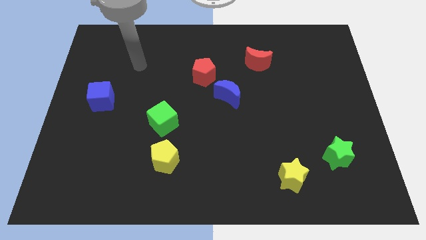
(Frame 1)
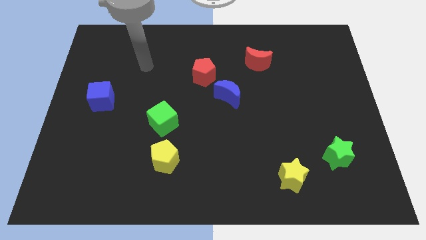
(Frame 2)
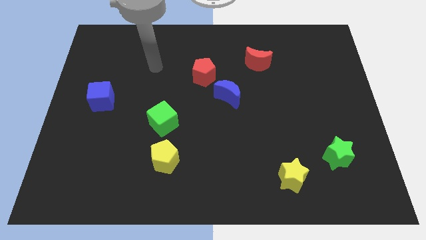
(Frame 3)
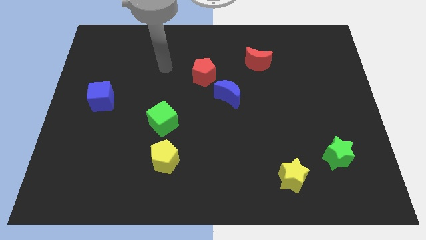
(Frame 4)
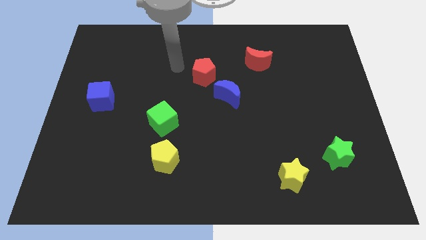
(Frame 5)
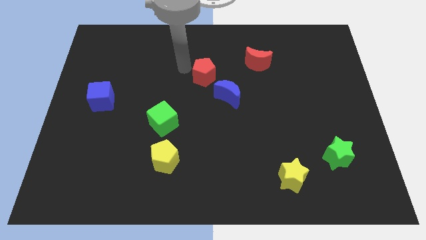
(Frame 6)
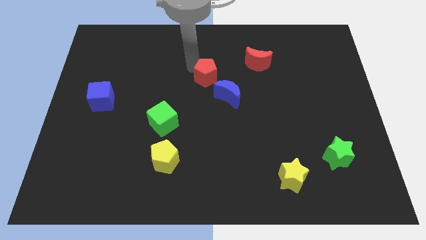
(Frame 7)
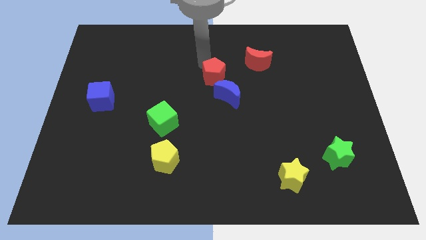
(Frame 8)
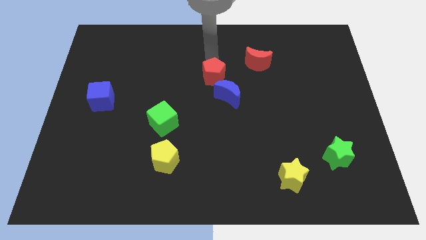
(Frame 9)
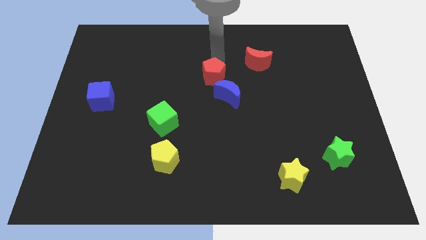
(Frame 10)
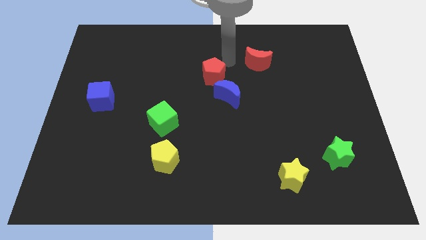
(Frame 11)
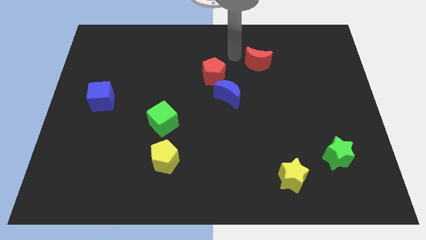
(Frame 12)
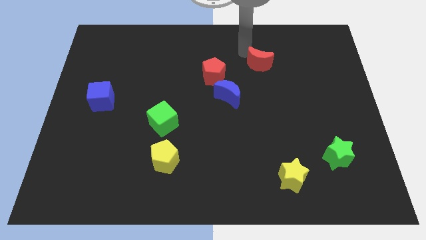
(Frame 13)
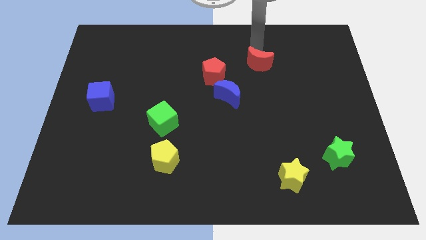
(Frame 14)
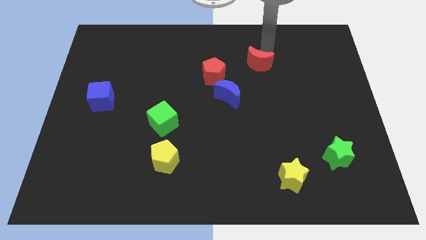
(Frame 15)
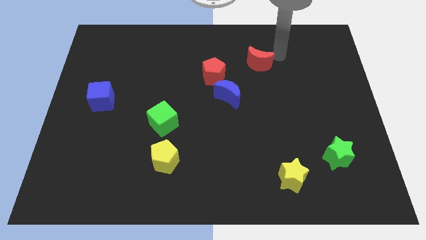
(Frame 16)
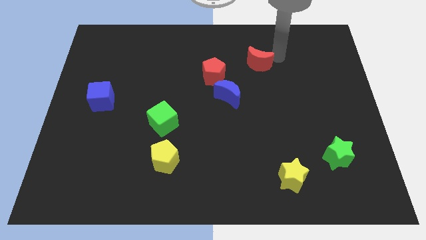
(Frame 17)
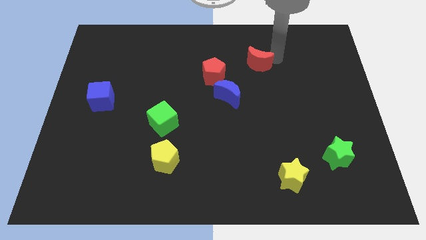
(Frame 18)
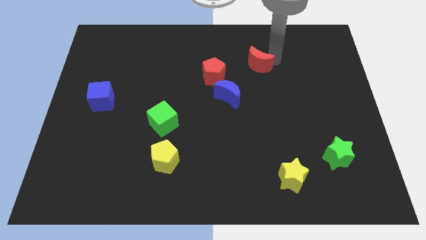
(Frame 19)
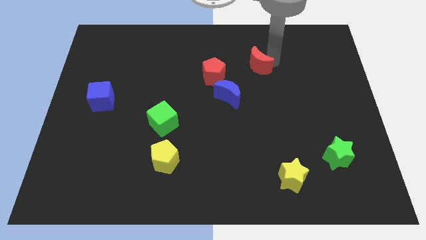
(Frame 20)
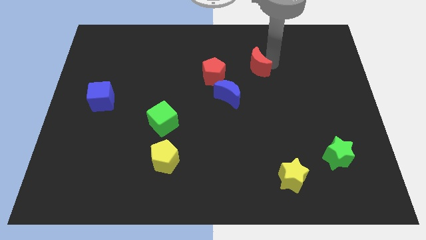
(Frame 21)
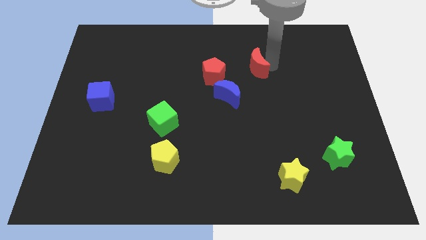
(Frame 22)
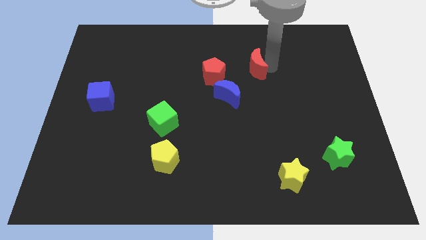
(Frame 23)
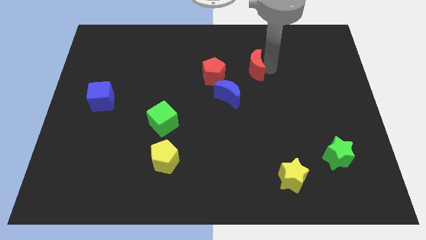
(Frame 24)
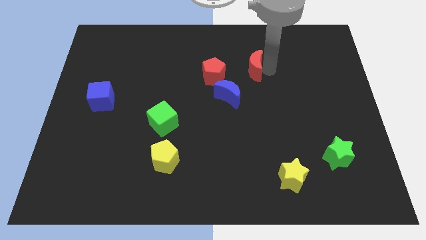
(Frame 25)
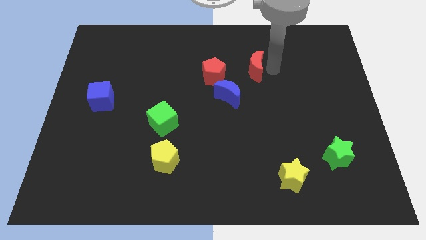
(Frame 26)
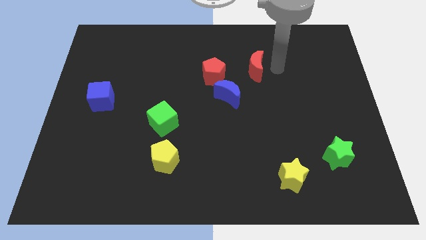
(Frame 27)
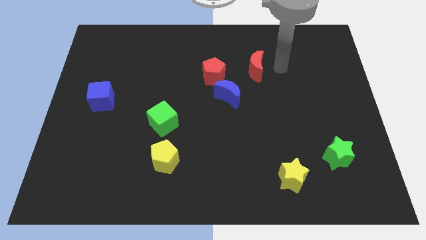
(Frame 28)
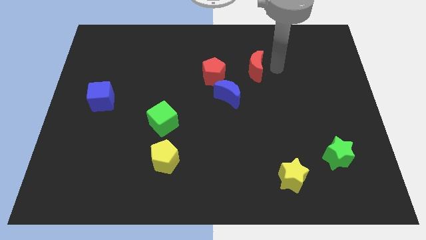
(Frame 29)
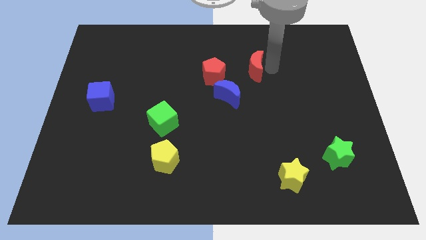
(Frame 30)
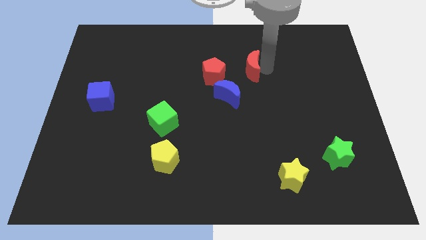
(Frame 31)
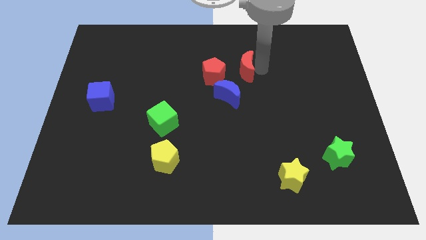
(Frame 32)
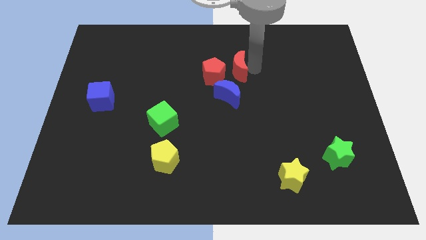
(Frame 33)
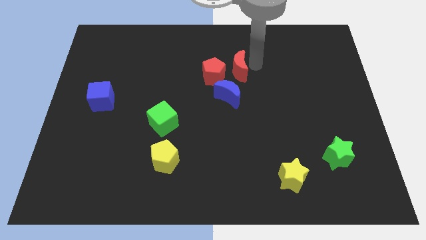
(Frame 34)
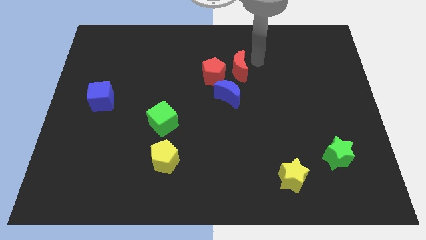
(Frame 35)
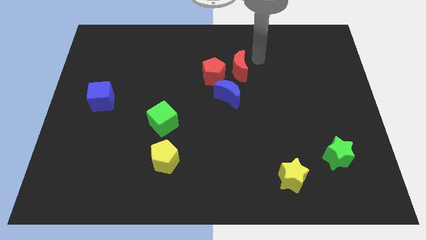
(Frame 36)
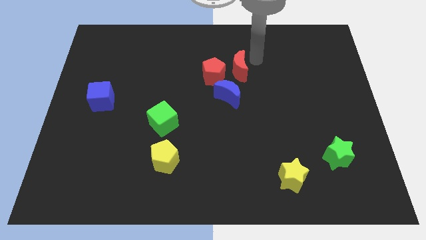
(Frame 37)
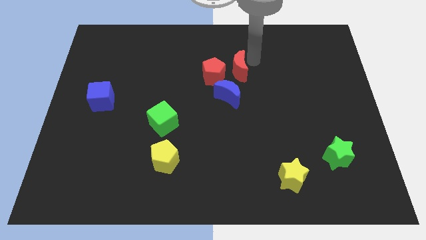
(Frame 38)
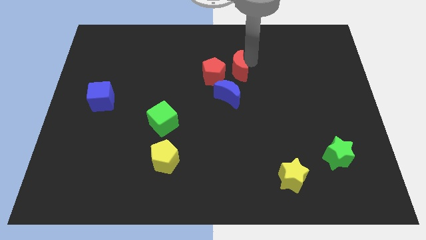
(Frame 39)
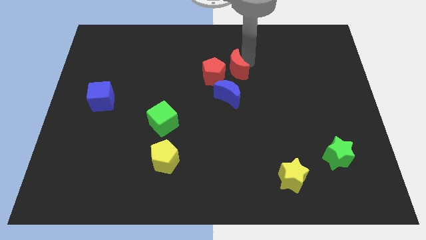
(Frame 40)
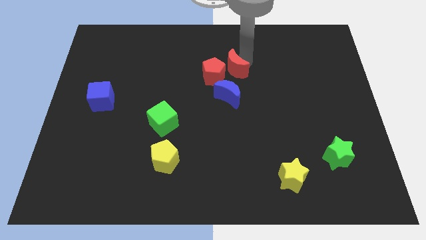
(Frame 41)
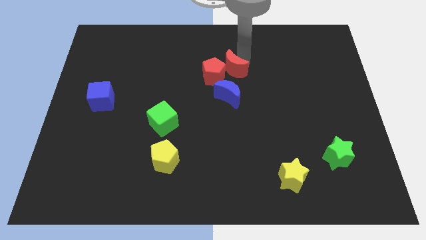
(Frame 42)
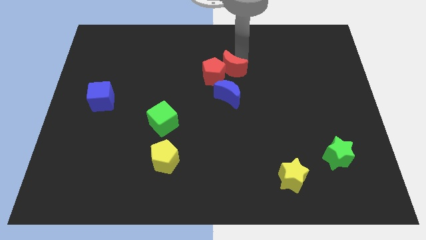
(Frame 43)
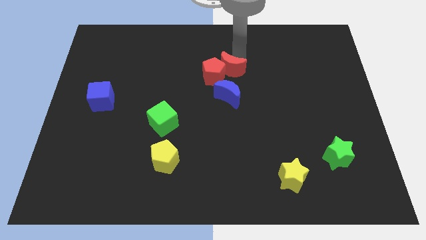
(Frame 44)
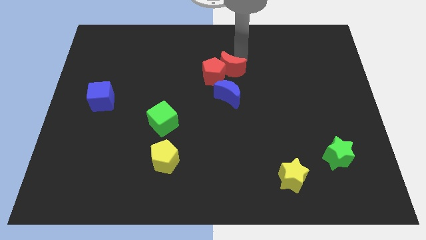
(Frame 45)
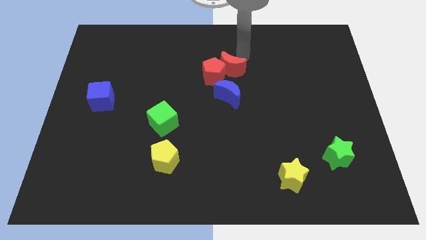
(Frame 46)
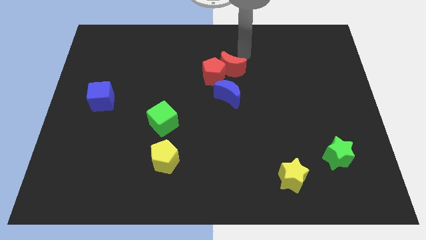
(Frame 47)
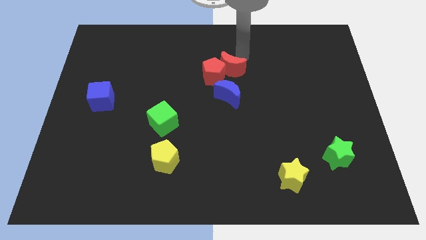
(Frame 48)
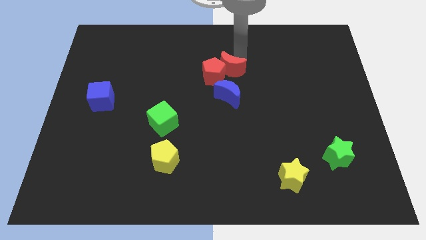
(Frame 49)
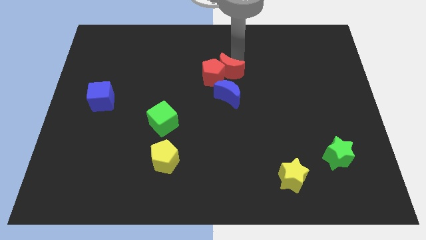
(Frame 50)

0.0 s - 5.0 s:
push the red moon downwards and to the left a little bit

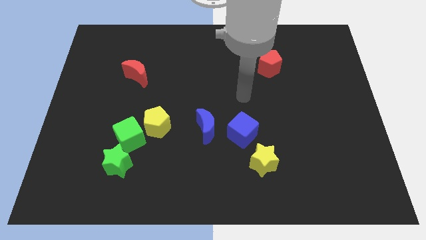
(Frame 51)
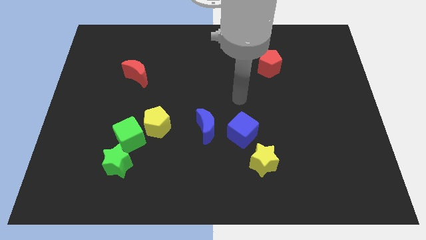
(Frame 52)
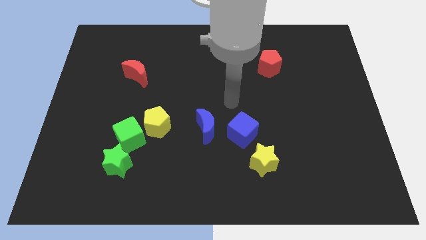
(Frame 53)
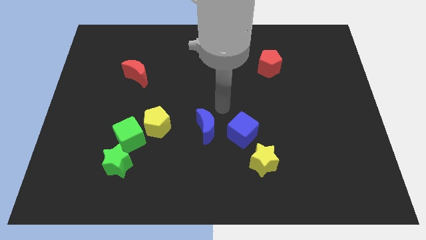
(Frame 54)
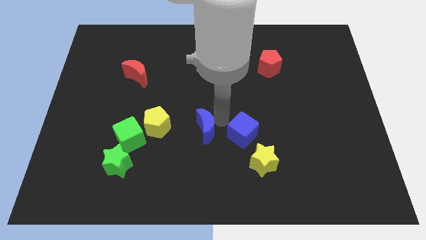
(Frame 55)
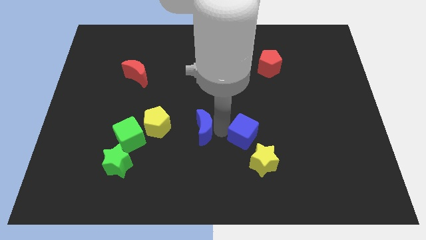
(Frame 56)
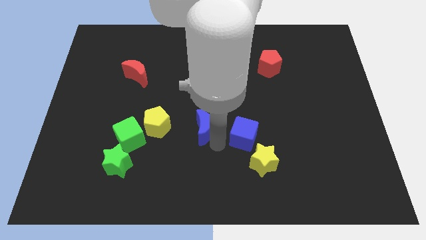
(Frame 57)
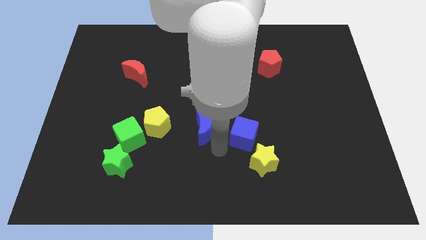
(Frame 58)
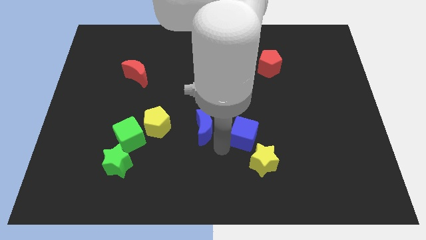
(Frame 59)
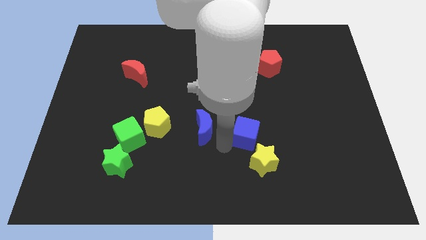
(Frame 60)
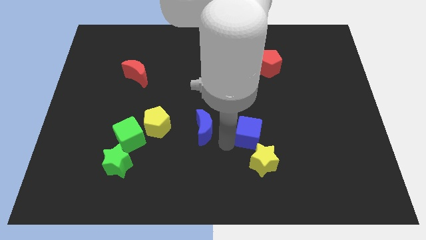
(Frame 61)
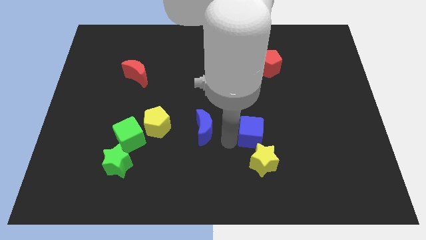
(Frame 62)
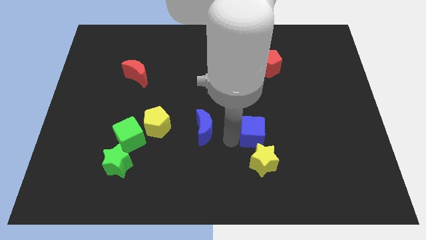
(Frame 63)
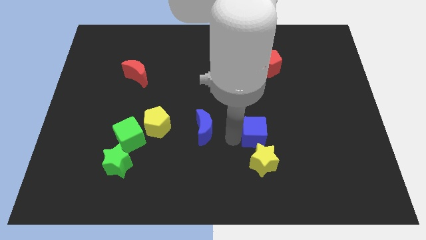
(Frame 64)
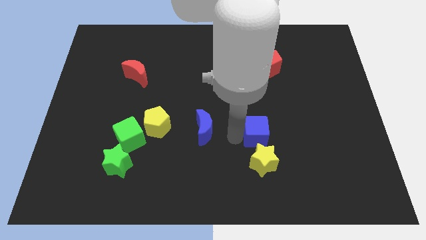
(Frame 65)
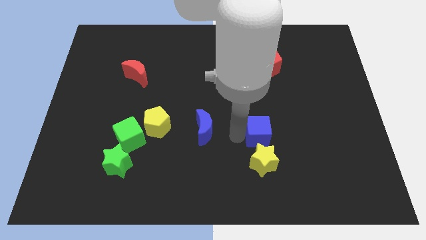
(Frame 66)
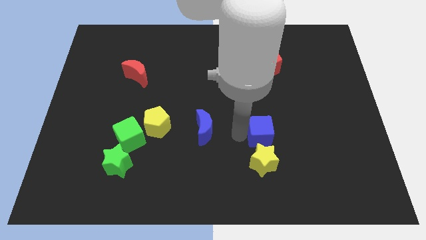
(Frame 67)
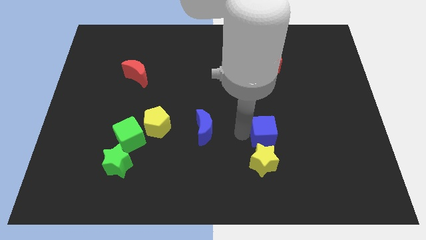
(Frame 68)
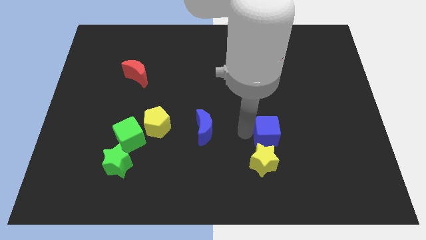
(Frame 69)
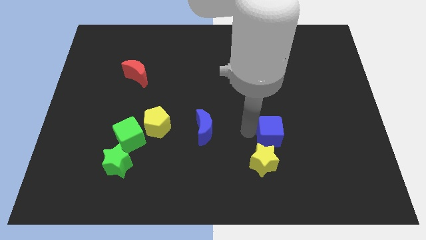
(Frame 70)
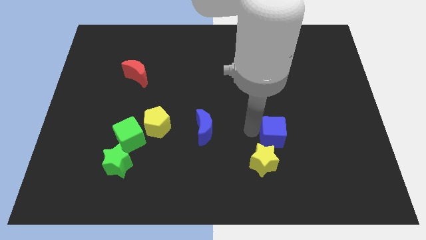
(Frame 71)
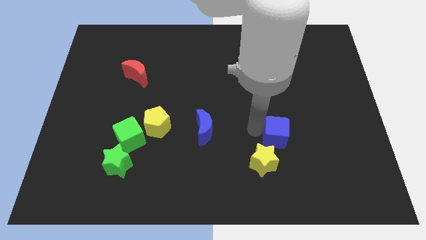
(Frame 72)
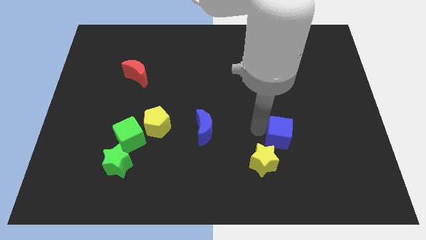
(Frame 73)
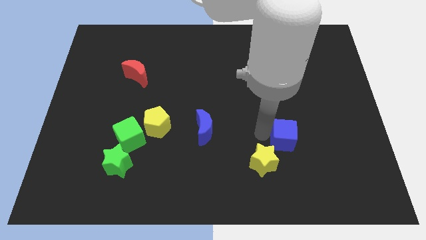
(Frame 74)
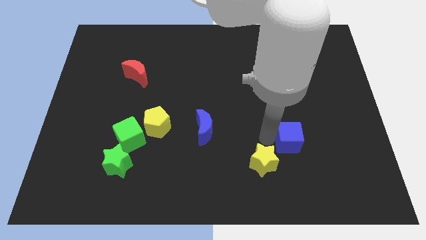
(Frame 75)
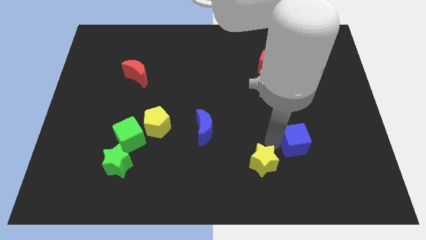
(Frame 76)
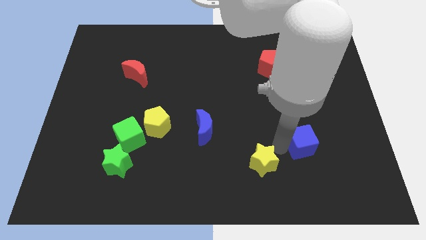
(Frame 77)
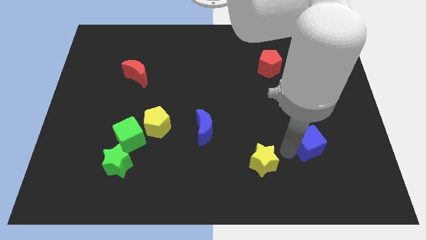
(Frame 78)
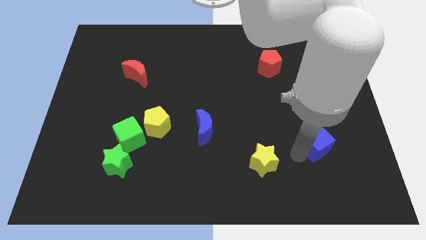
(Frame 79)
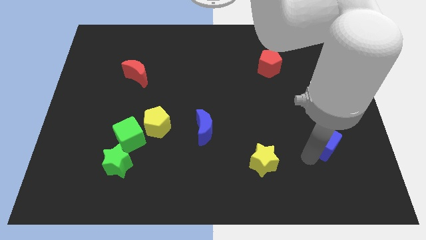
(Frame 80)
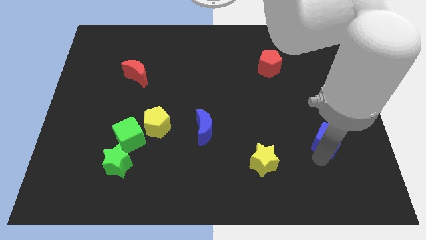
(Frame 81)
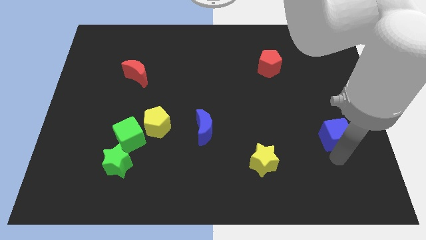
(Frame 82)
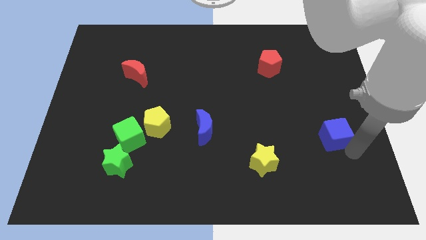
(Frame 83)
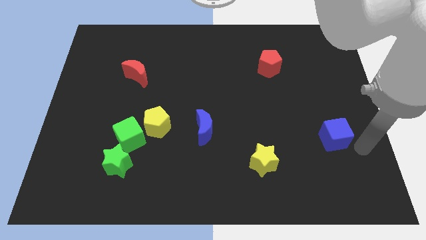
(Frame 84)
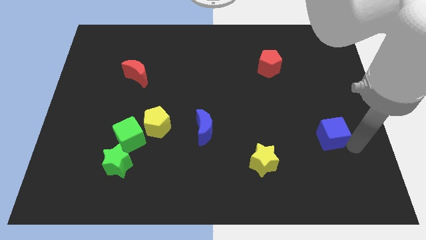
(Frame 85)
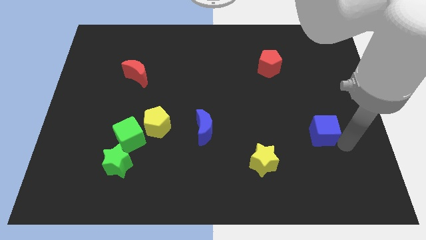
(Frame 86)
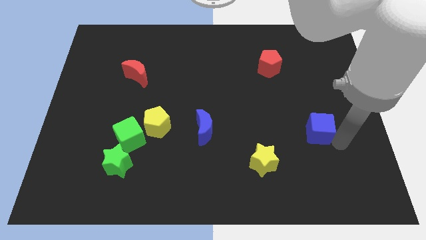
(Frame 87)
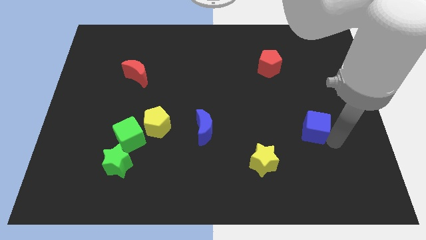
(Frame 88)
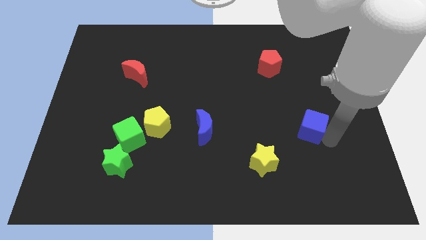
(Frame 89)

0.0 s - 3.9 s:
move the blue cube upwards and right diagonally a little
